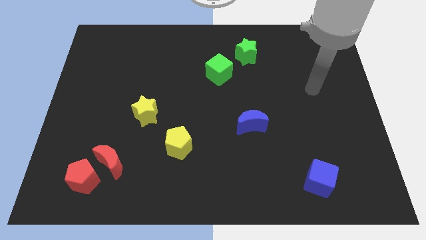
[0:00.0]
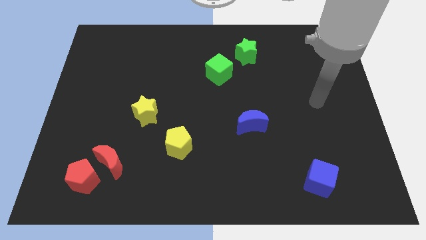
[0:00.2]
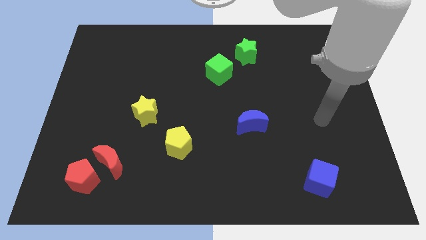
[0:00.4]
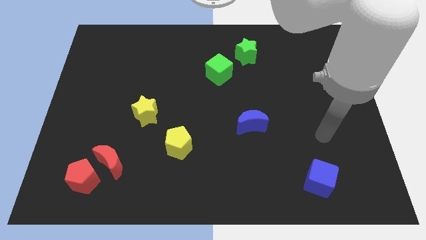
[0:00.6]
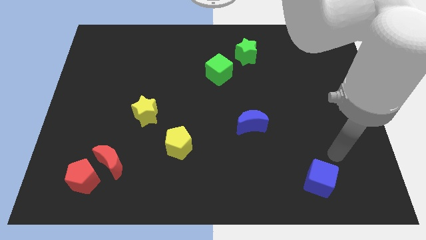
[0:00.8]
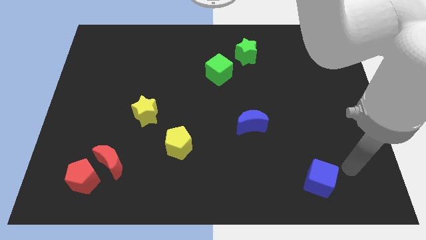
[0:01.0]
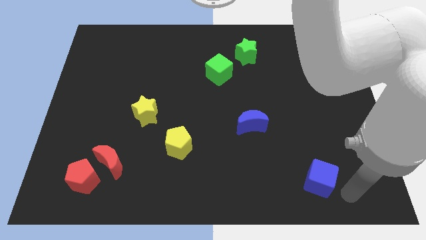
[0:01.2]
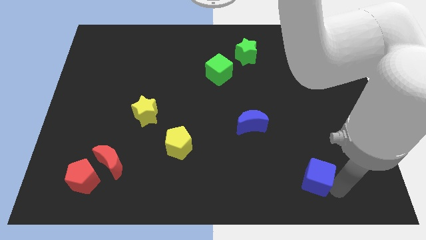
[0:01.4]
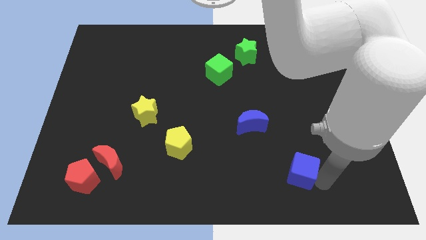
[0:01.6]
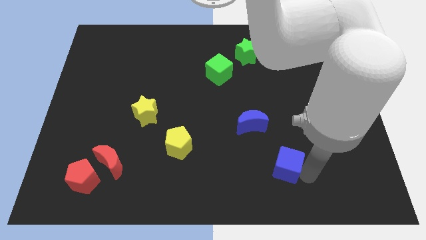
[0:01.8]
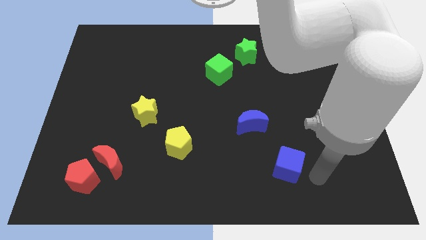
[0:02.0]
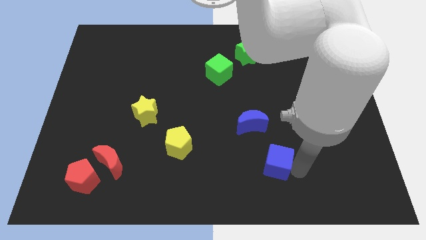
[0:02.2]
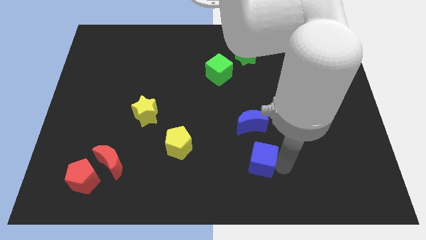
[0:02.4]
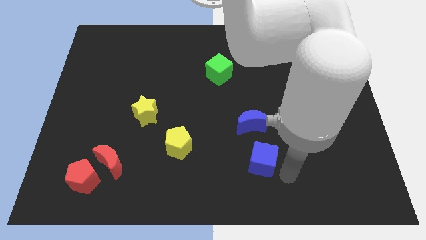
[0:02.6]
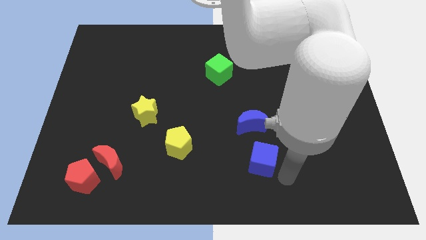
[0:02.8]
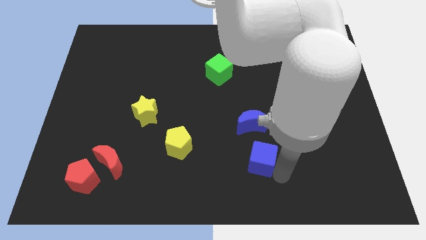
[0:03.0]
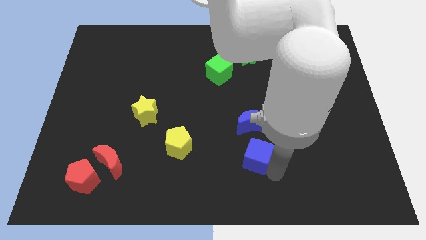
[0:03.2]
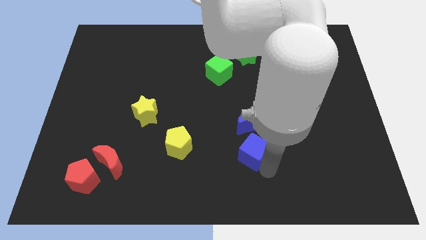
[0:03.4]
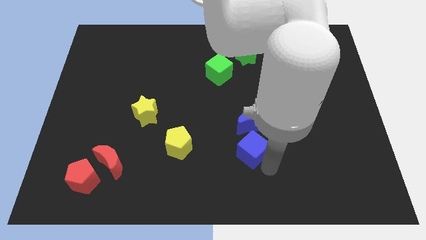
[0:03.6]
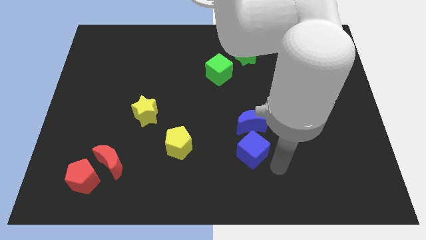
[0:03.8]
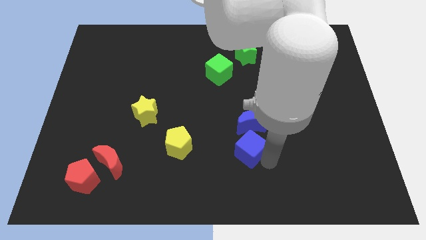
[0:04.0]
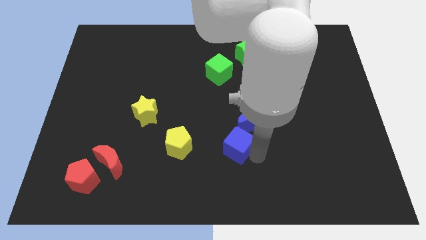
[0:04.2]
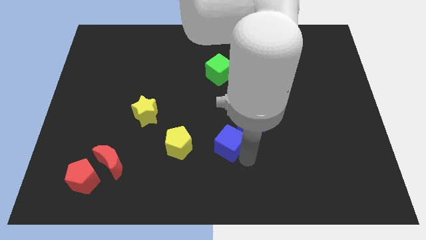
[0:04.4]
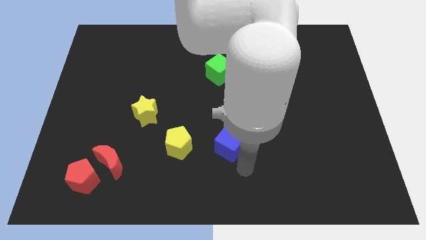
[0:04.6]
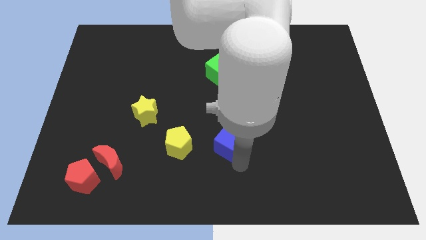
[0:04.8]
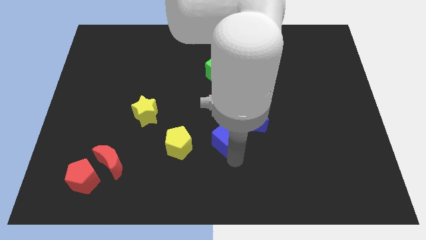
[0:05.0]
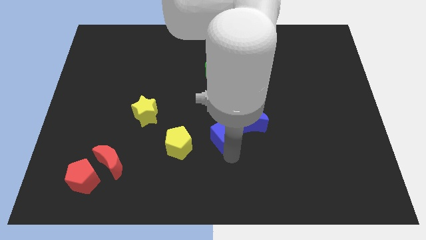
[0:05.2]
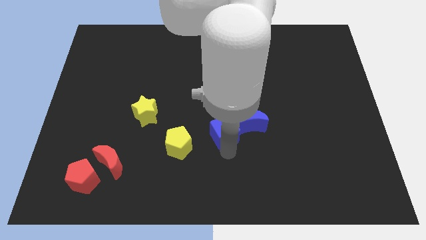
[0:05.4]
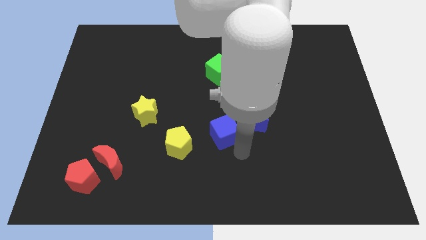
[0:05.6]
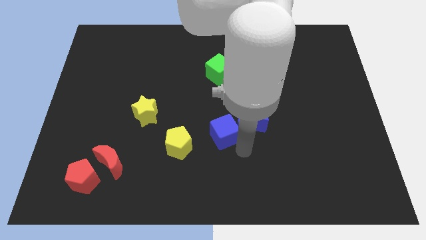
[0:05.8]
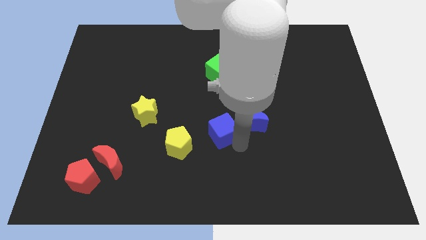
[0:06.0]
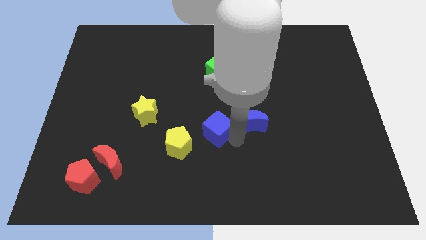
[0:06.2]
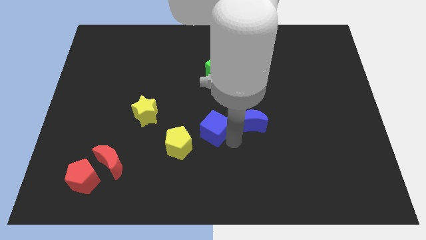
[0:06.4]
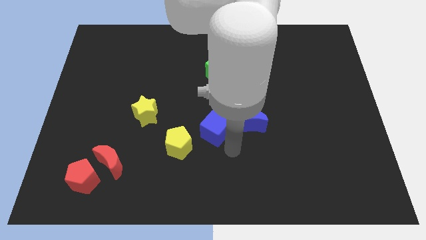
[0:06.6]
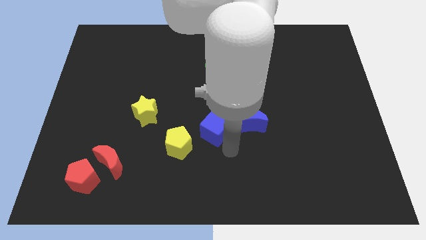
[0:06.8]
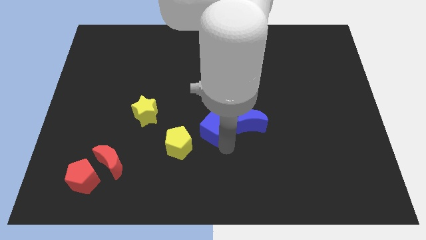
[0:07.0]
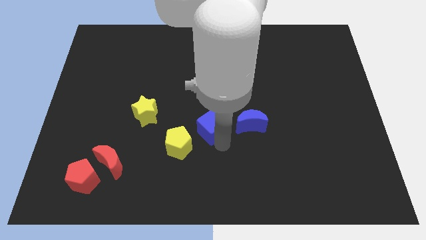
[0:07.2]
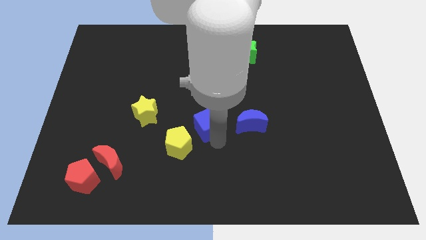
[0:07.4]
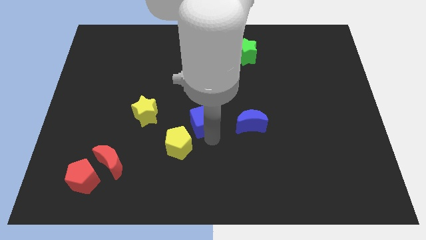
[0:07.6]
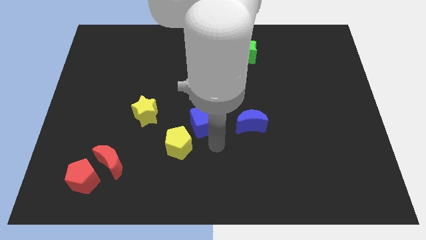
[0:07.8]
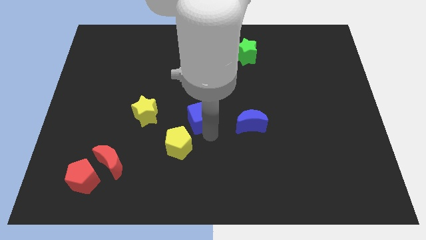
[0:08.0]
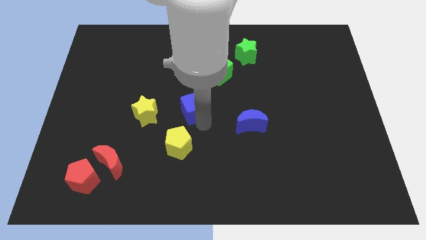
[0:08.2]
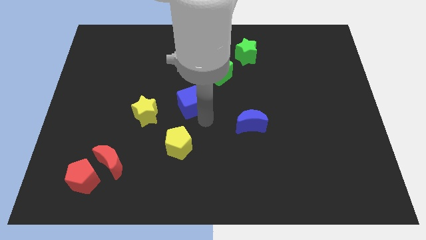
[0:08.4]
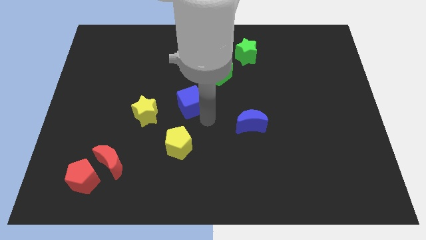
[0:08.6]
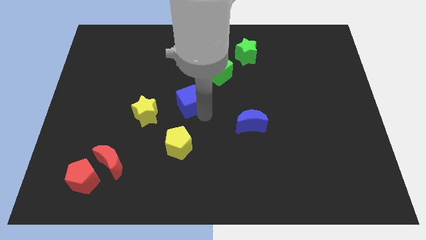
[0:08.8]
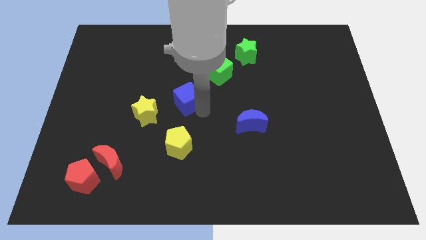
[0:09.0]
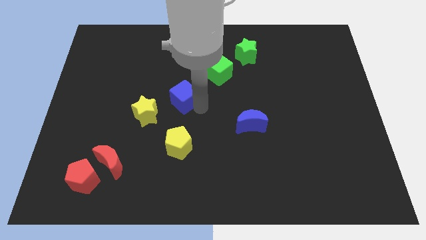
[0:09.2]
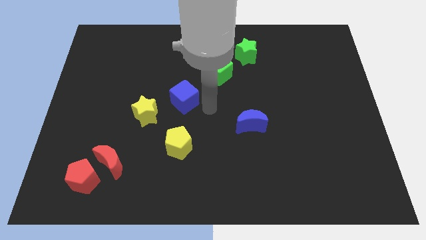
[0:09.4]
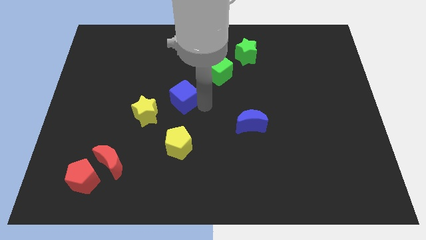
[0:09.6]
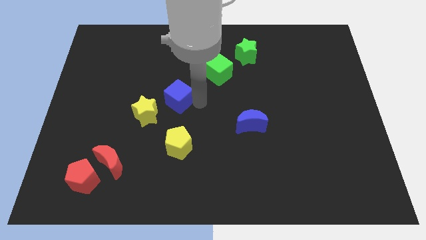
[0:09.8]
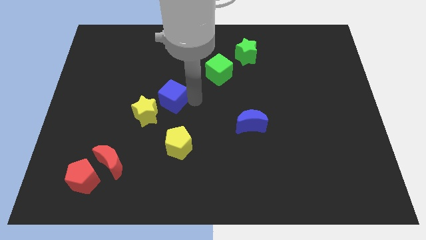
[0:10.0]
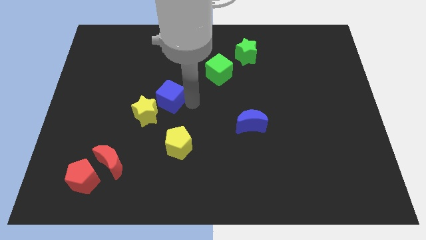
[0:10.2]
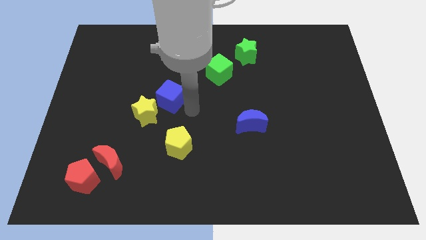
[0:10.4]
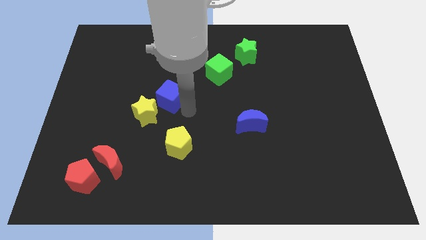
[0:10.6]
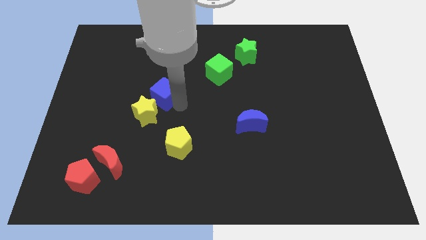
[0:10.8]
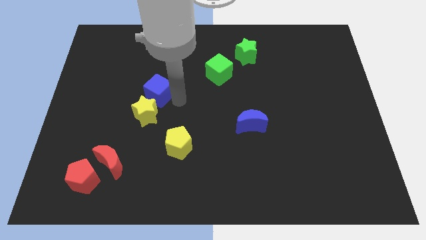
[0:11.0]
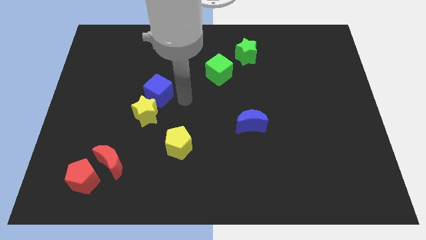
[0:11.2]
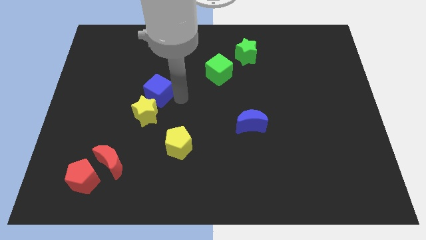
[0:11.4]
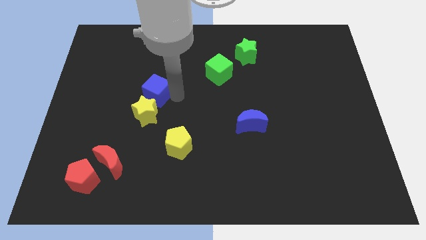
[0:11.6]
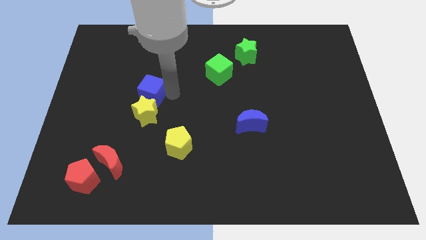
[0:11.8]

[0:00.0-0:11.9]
move the blue cube diagonally up and to the left of the yellow star

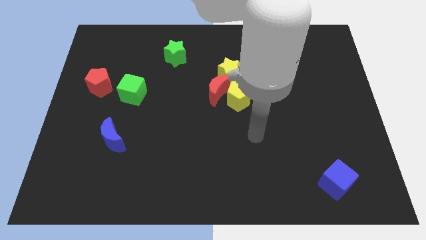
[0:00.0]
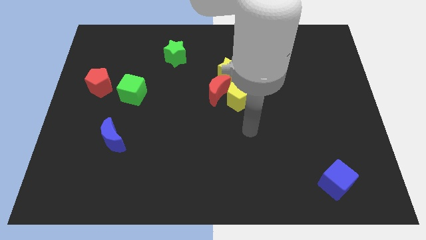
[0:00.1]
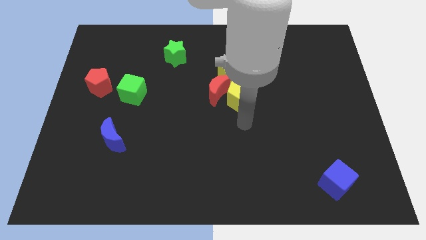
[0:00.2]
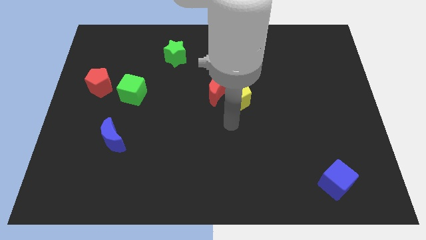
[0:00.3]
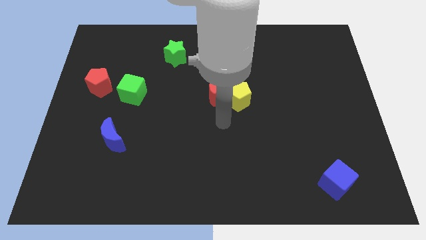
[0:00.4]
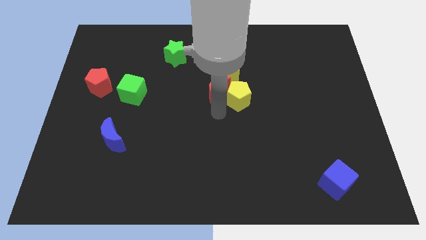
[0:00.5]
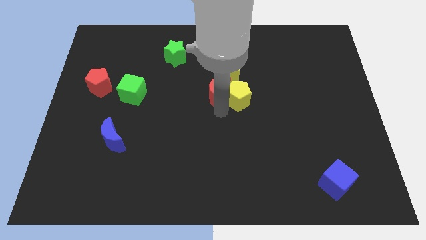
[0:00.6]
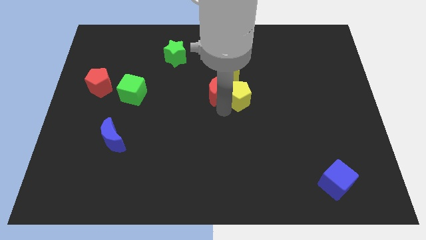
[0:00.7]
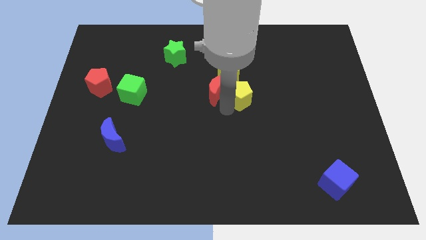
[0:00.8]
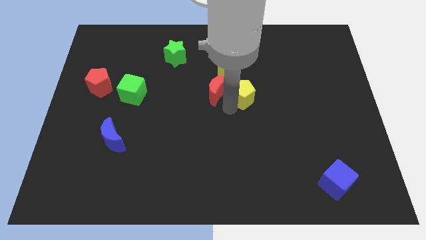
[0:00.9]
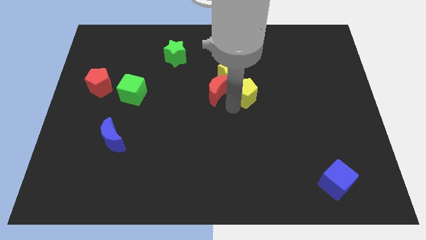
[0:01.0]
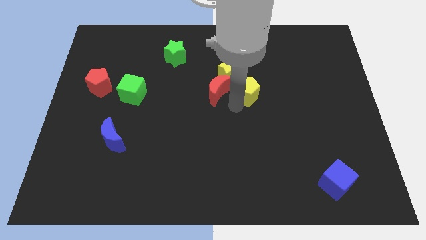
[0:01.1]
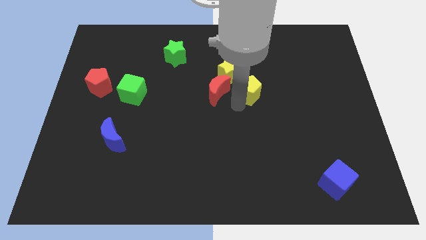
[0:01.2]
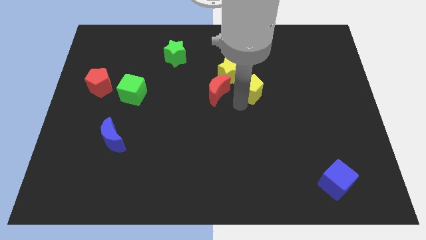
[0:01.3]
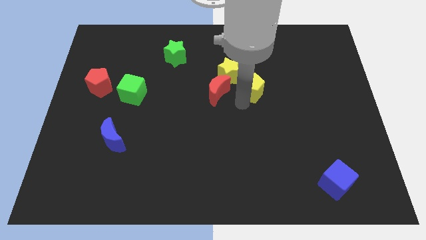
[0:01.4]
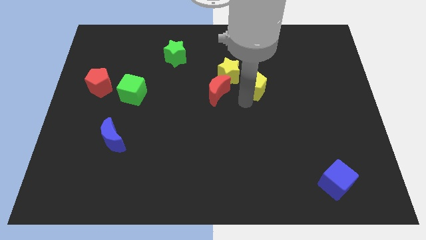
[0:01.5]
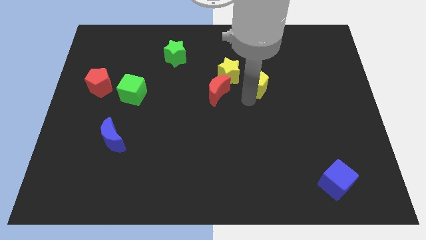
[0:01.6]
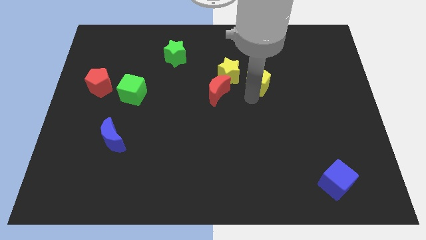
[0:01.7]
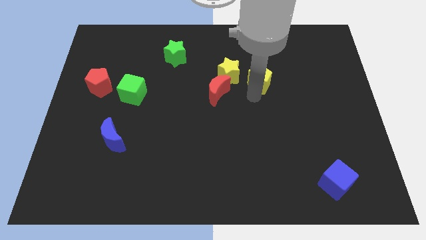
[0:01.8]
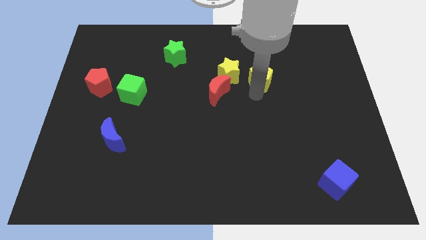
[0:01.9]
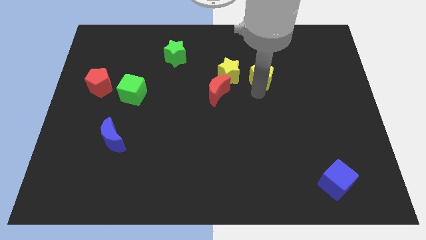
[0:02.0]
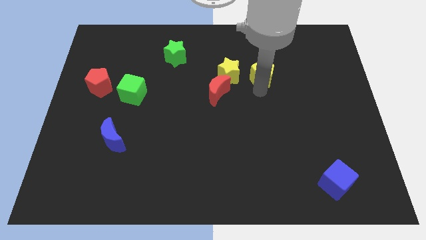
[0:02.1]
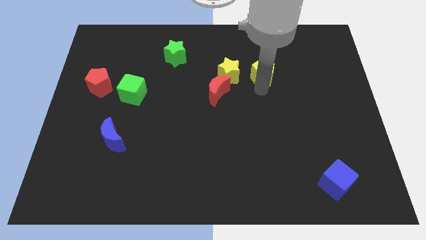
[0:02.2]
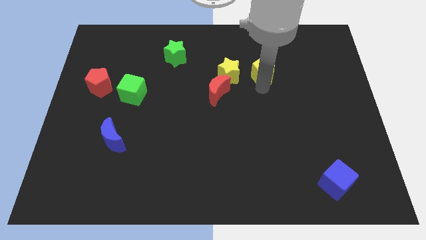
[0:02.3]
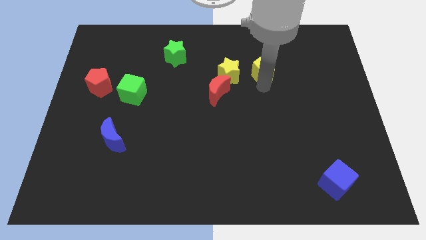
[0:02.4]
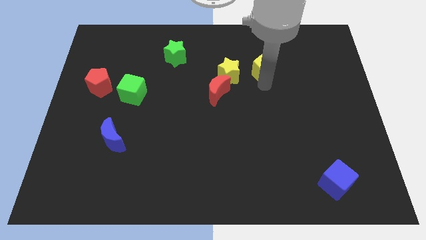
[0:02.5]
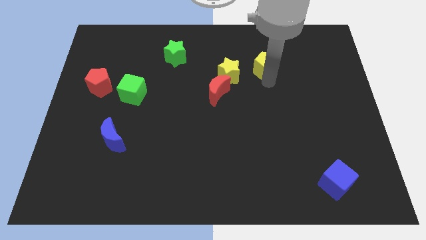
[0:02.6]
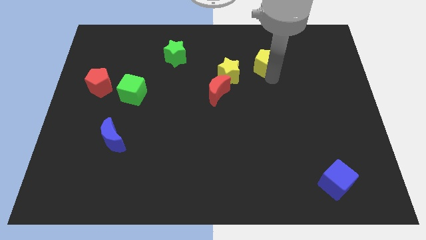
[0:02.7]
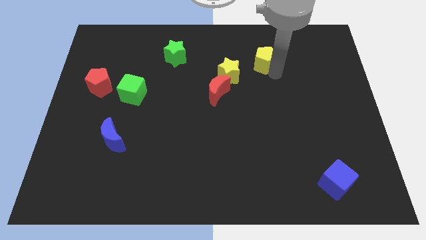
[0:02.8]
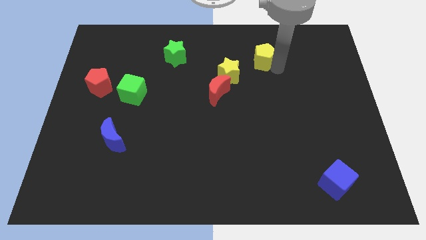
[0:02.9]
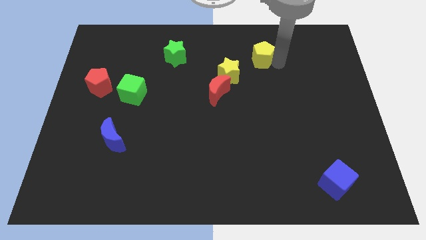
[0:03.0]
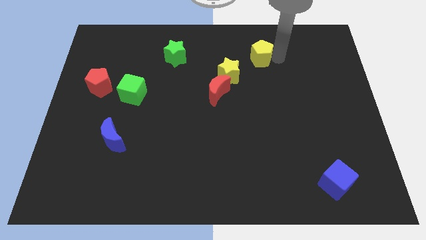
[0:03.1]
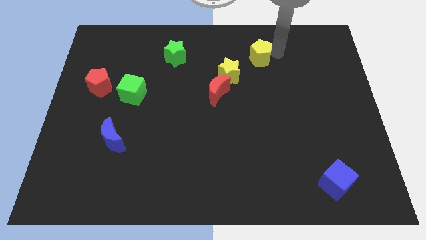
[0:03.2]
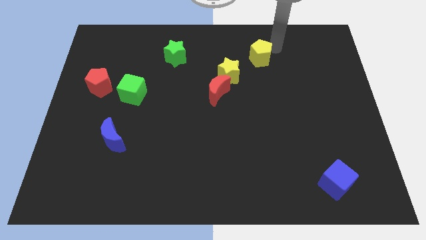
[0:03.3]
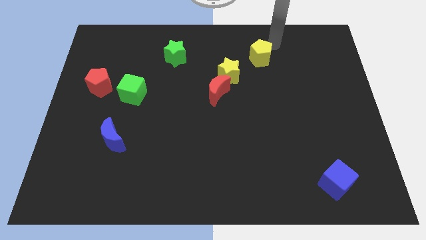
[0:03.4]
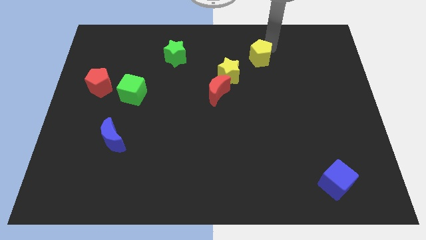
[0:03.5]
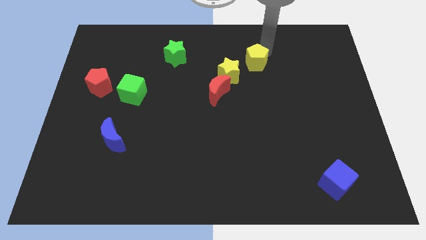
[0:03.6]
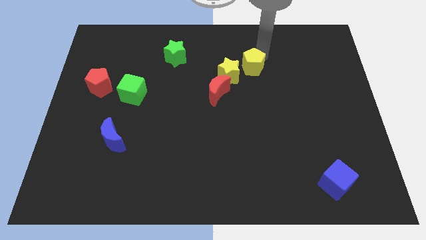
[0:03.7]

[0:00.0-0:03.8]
put the yellow pentagon diagonally up and to the right of the red moon
